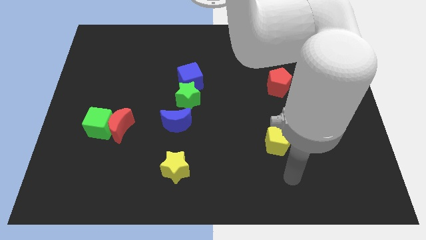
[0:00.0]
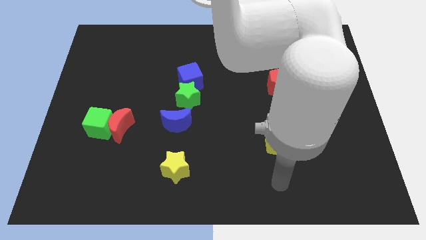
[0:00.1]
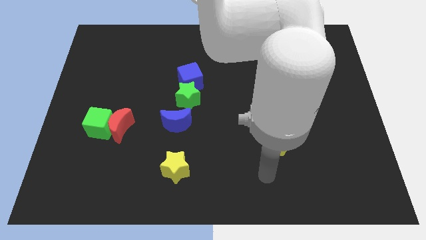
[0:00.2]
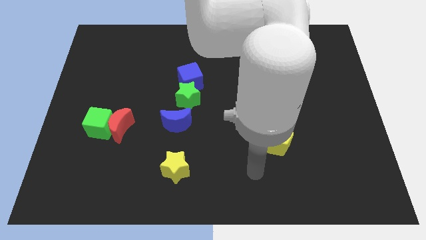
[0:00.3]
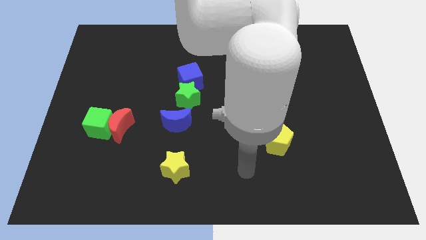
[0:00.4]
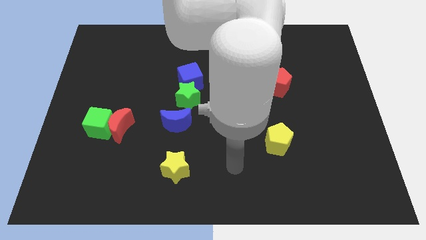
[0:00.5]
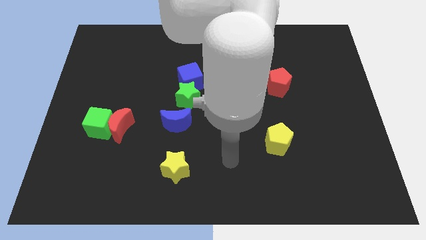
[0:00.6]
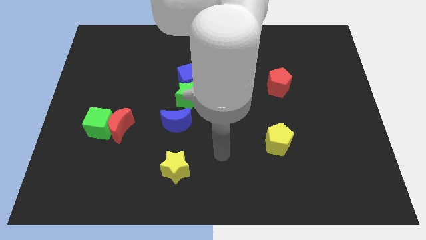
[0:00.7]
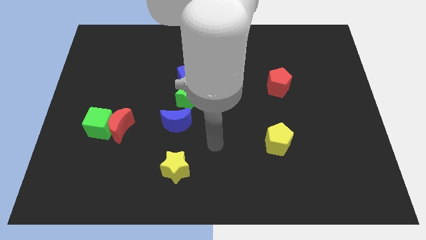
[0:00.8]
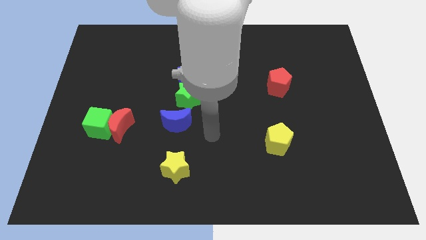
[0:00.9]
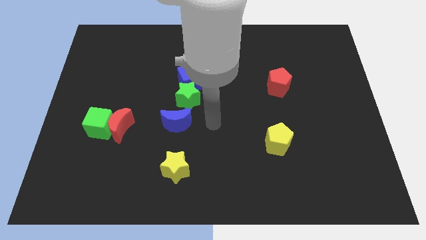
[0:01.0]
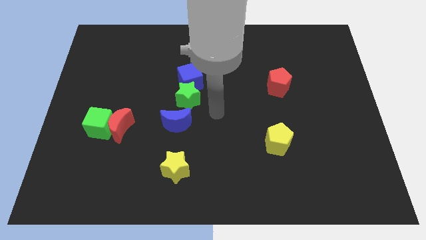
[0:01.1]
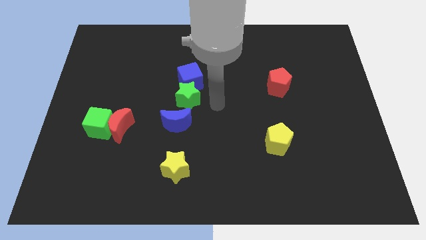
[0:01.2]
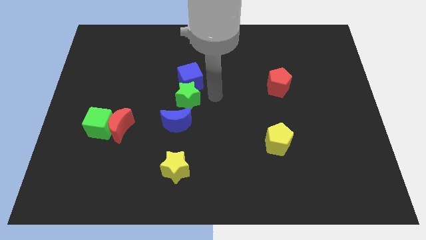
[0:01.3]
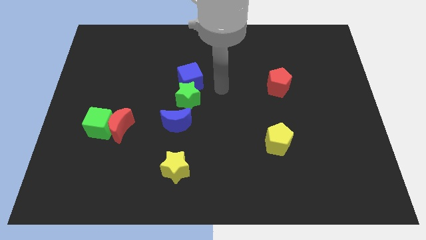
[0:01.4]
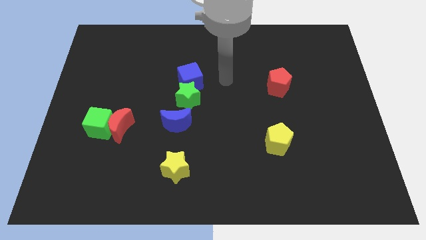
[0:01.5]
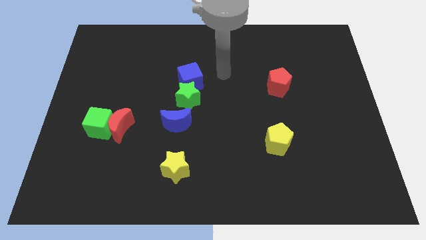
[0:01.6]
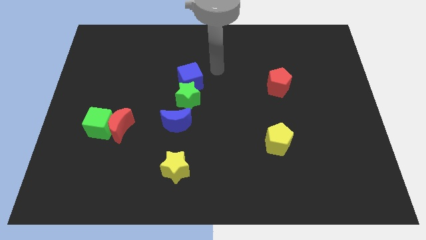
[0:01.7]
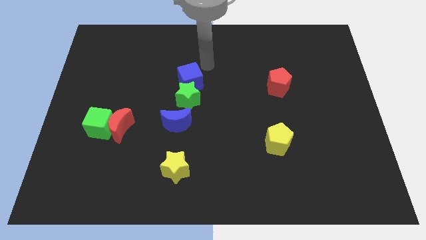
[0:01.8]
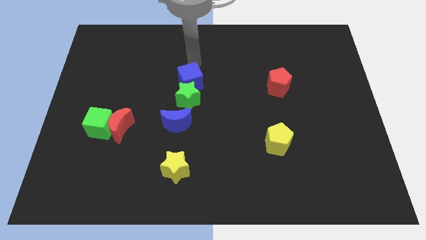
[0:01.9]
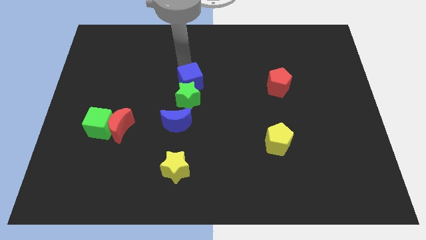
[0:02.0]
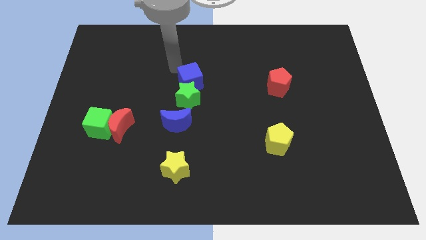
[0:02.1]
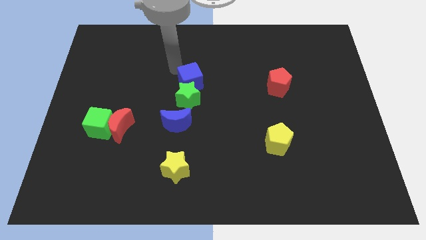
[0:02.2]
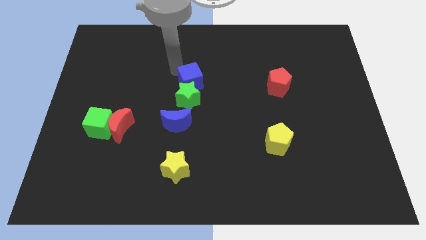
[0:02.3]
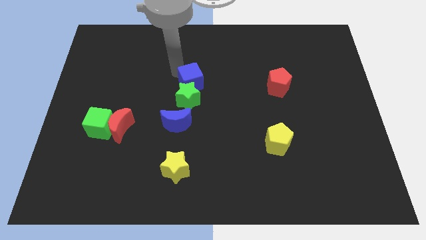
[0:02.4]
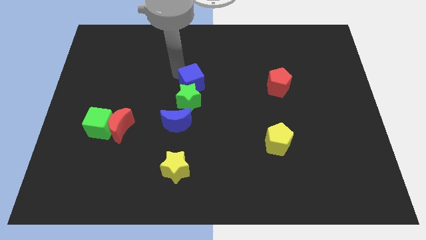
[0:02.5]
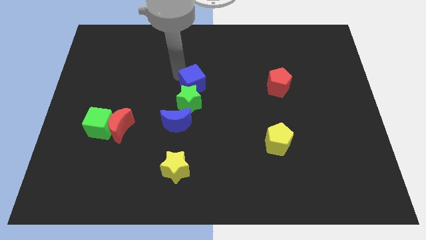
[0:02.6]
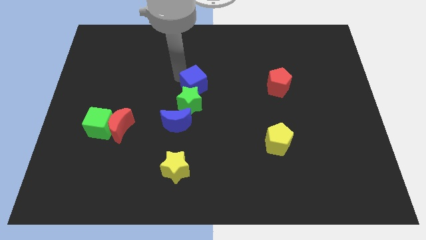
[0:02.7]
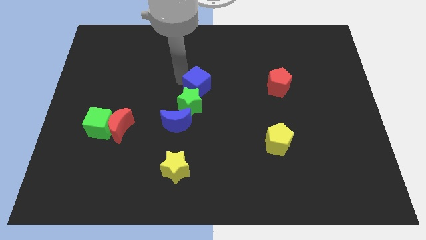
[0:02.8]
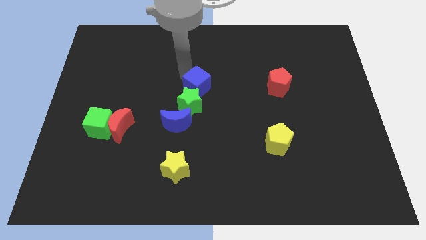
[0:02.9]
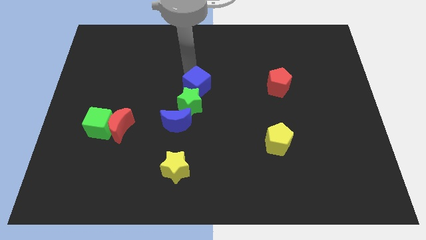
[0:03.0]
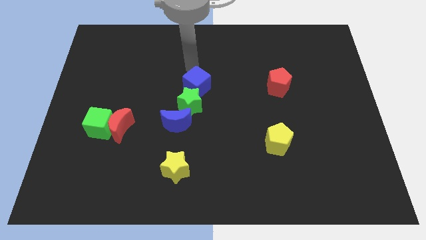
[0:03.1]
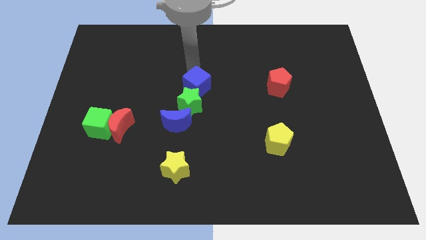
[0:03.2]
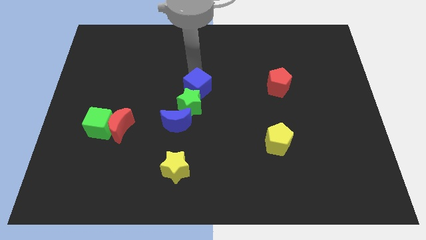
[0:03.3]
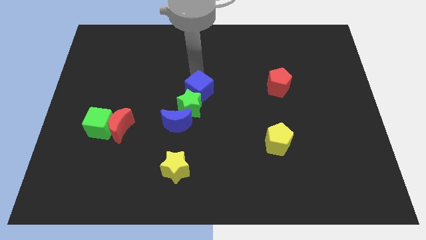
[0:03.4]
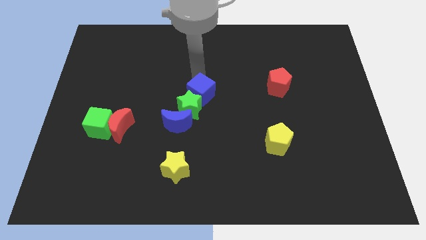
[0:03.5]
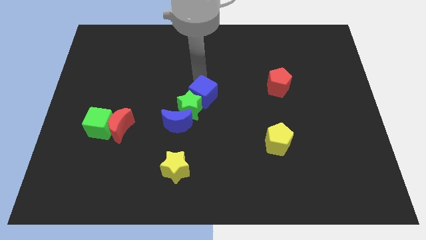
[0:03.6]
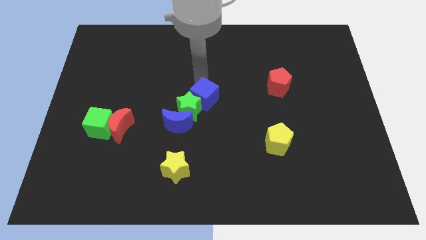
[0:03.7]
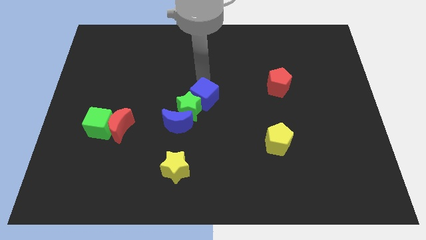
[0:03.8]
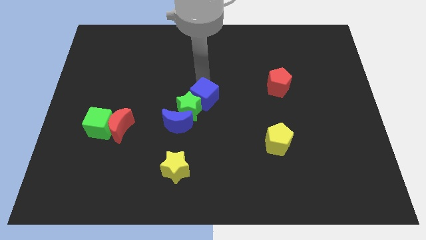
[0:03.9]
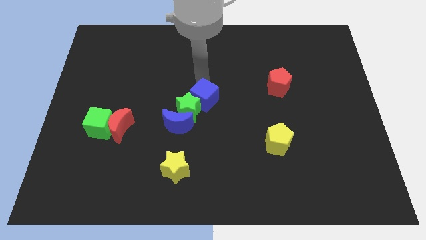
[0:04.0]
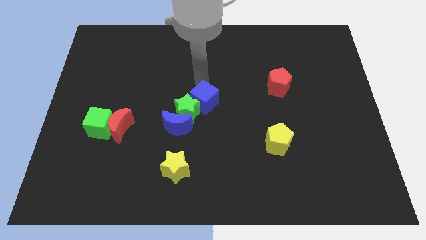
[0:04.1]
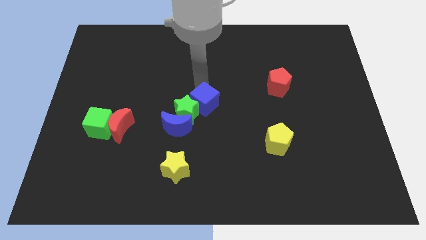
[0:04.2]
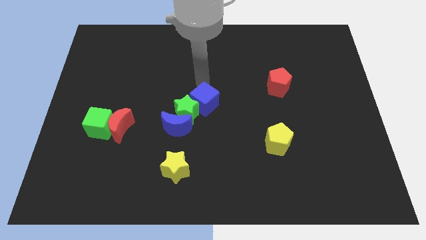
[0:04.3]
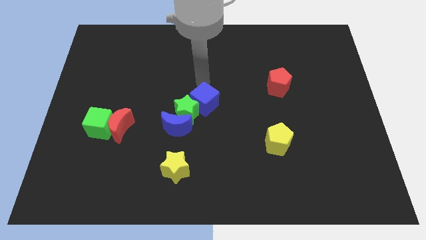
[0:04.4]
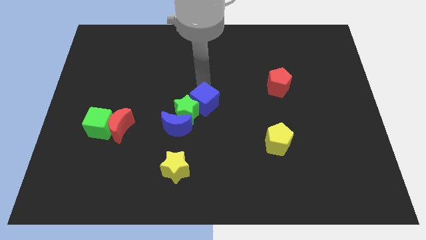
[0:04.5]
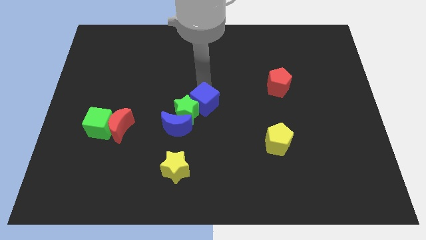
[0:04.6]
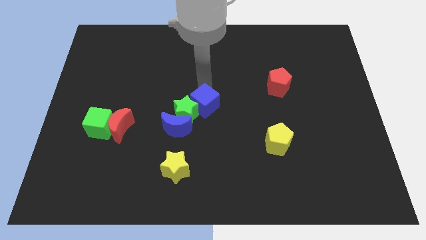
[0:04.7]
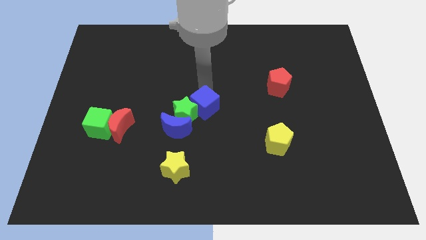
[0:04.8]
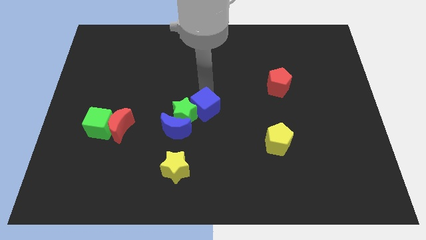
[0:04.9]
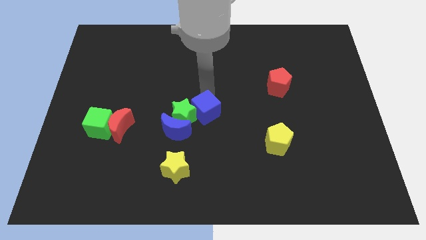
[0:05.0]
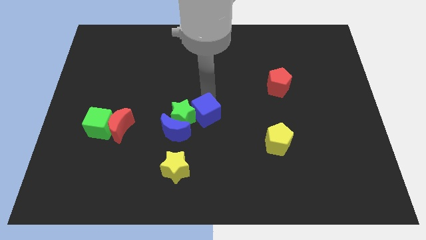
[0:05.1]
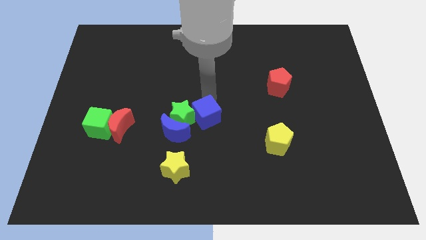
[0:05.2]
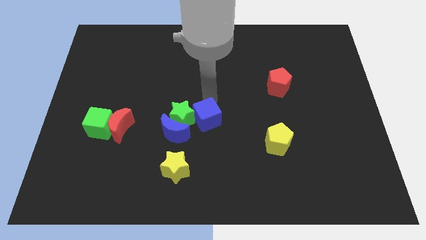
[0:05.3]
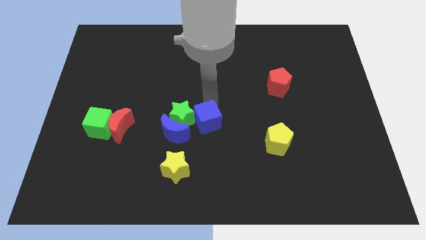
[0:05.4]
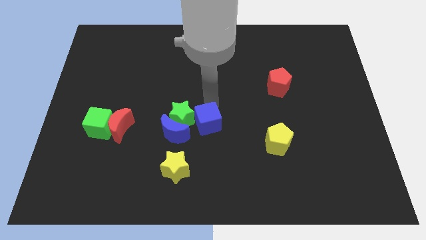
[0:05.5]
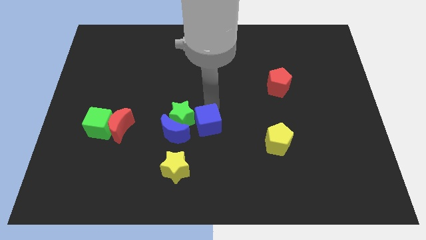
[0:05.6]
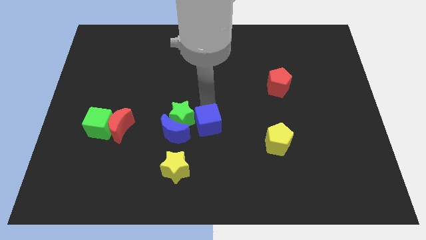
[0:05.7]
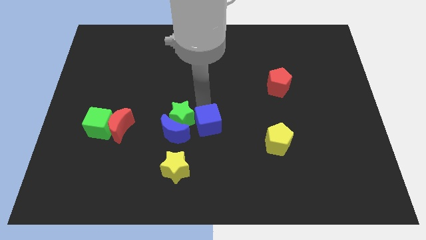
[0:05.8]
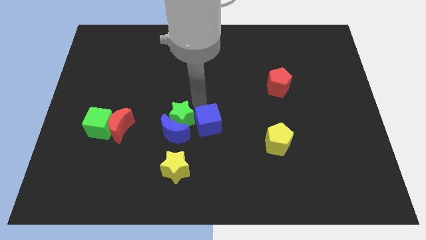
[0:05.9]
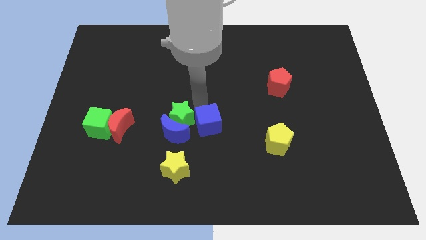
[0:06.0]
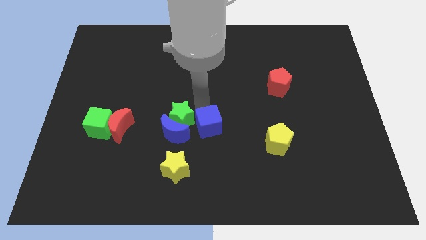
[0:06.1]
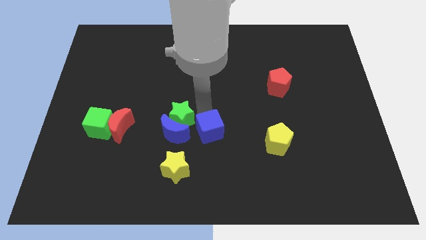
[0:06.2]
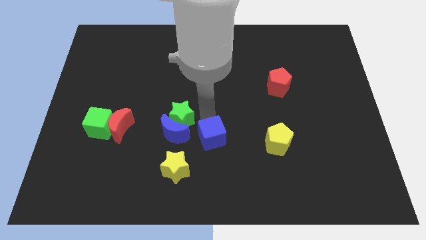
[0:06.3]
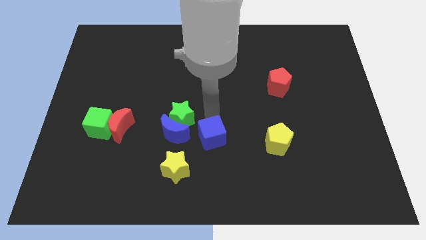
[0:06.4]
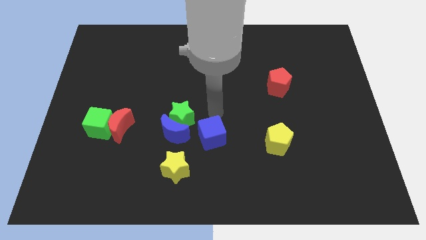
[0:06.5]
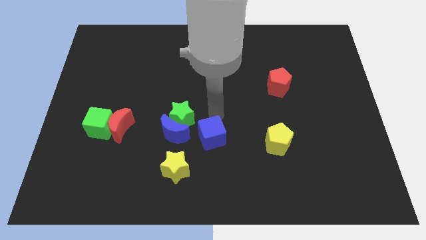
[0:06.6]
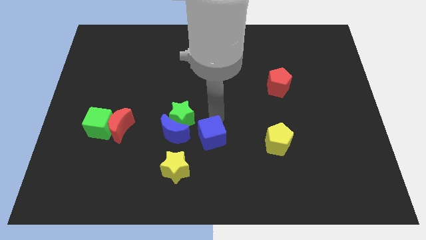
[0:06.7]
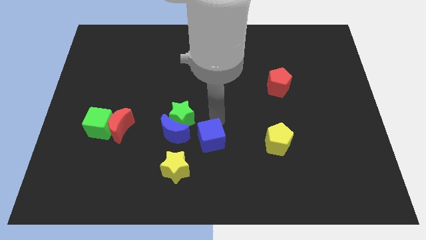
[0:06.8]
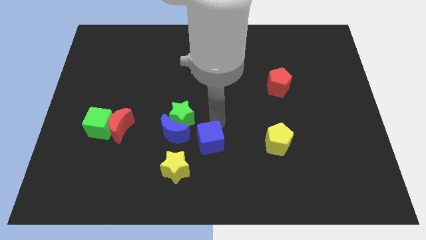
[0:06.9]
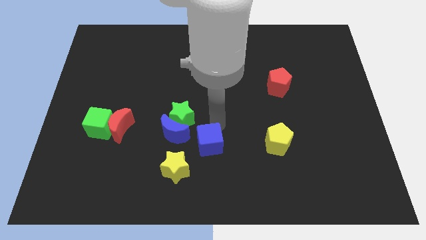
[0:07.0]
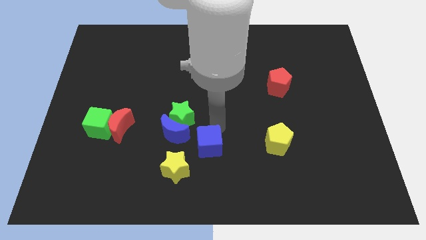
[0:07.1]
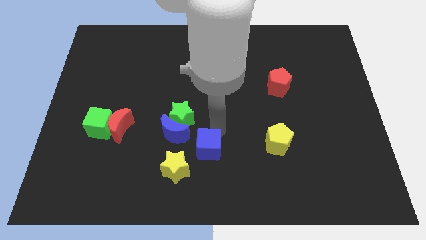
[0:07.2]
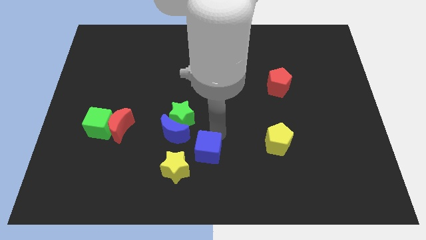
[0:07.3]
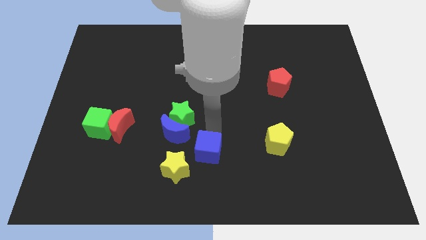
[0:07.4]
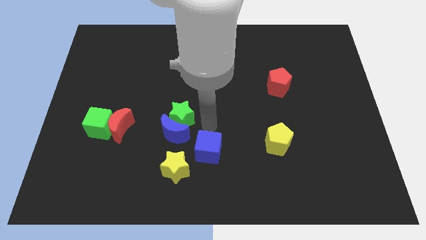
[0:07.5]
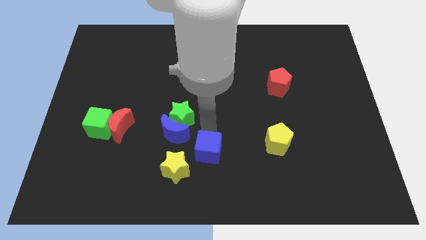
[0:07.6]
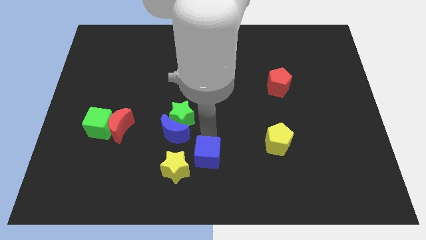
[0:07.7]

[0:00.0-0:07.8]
slide the blue cube to the bottom
